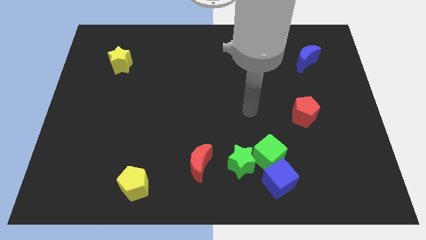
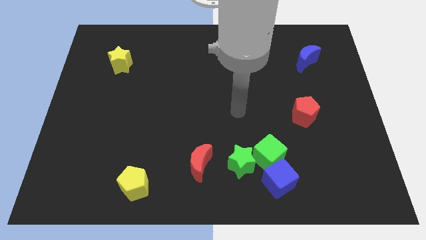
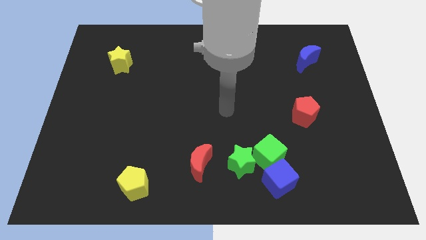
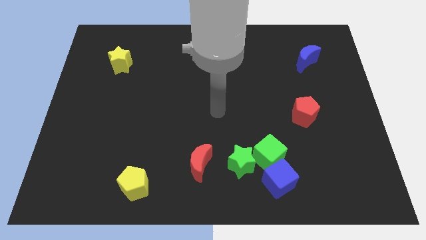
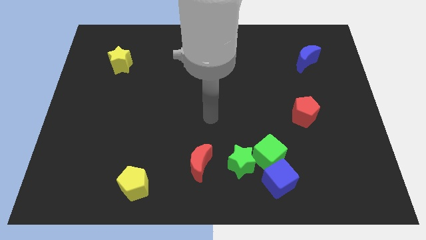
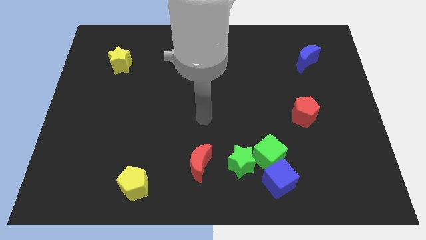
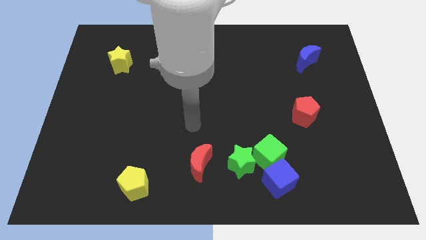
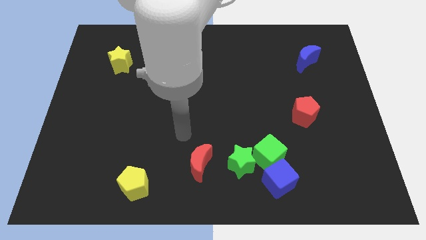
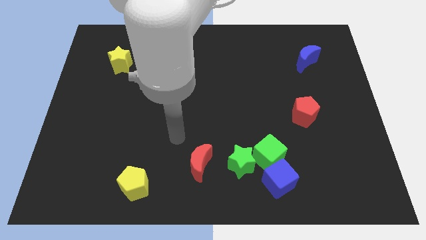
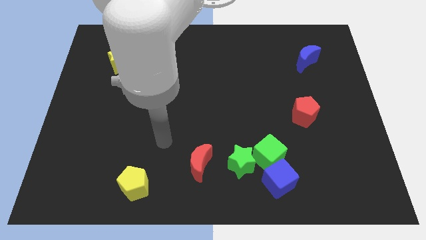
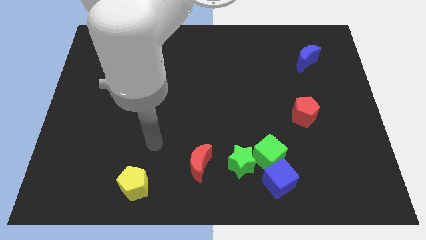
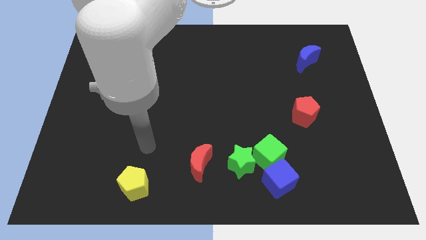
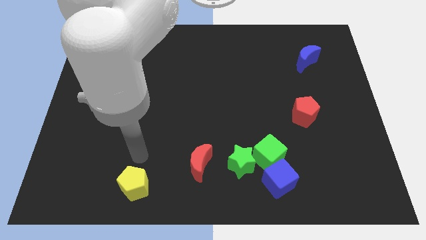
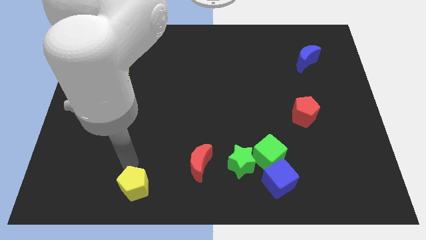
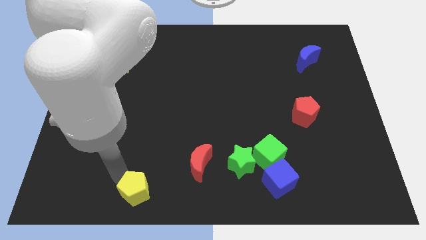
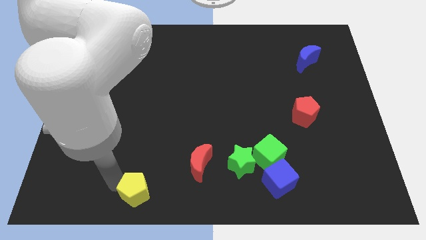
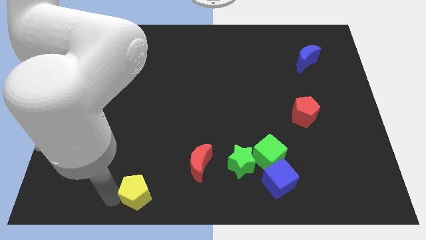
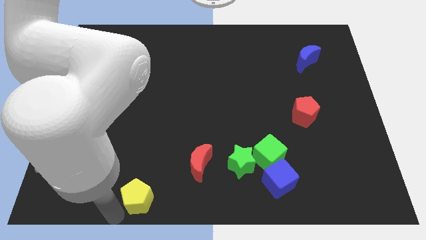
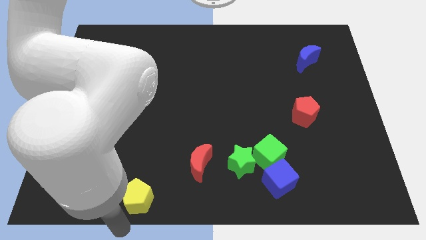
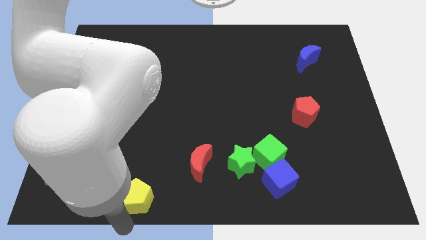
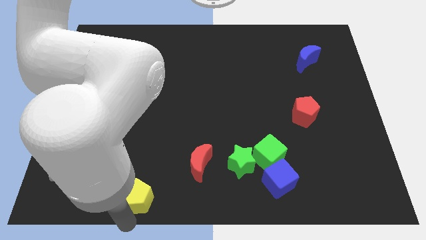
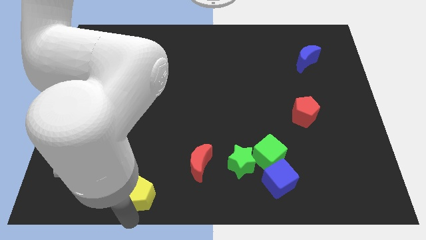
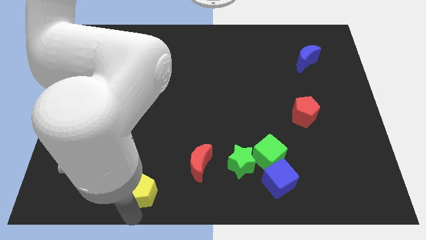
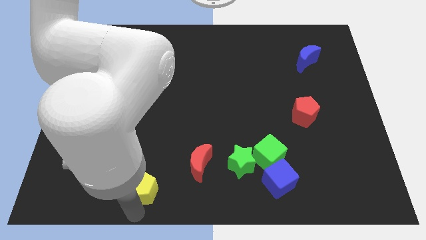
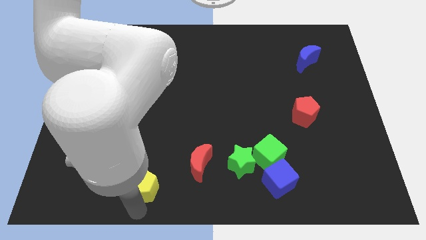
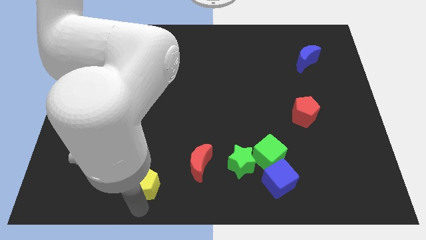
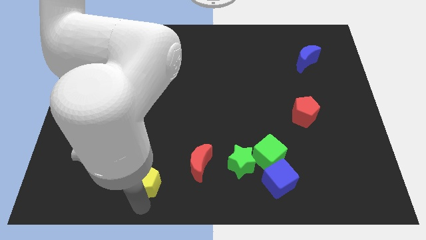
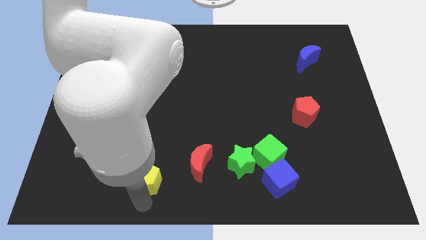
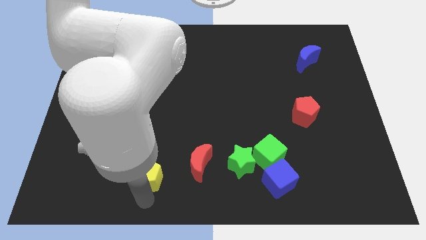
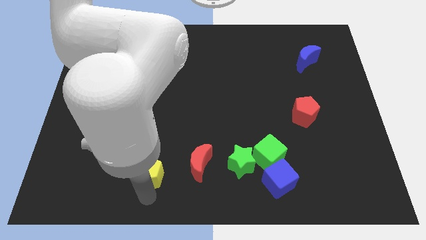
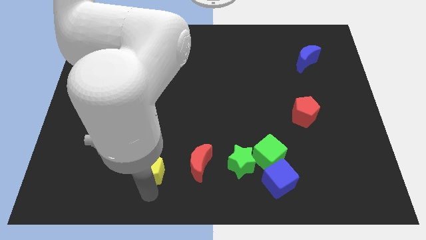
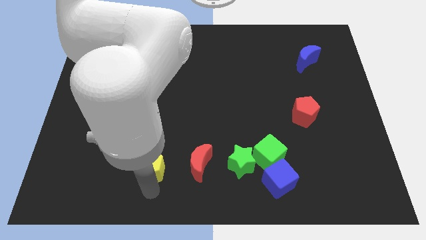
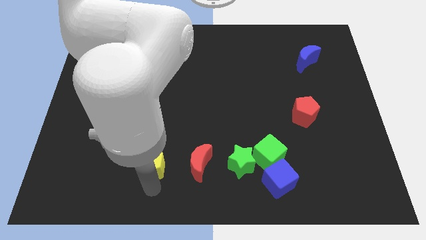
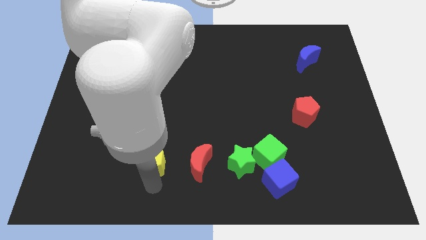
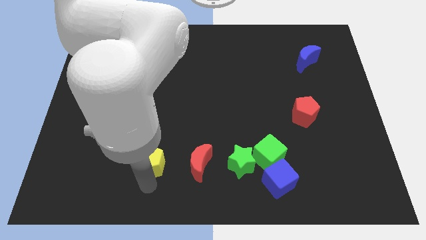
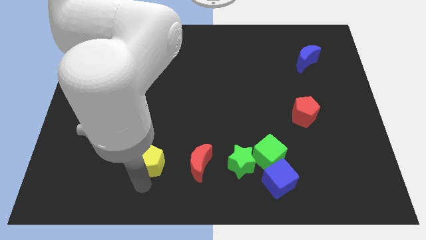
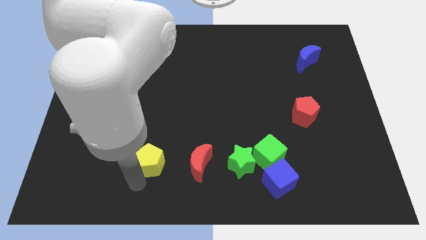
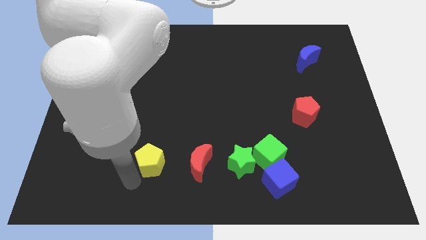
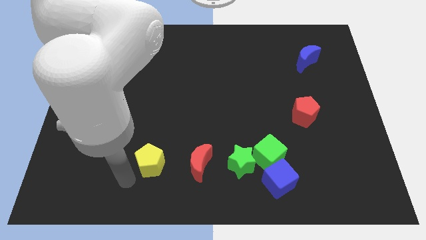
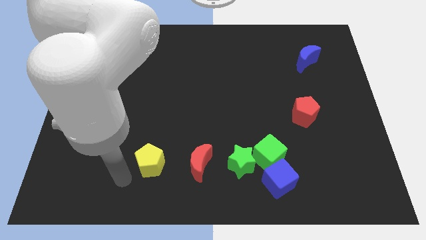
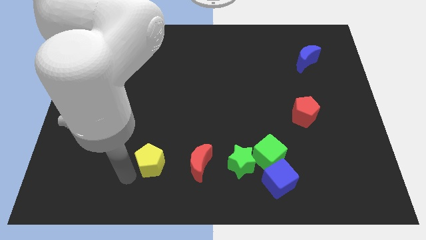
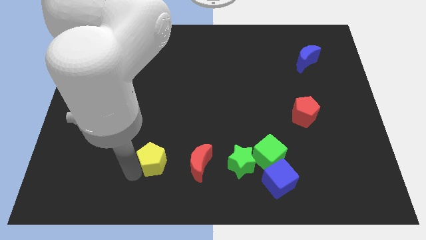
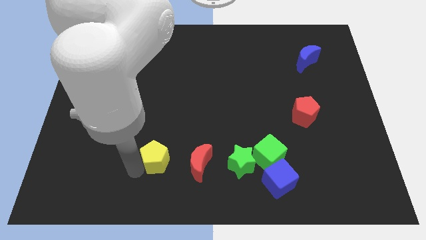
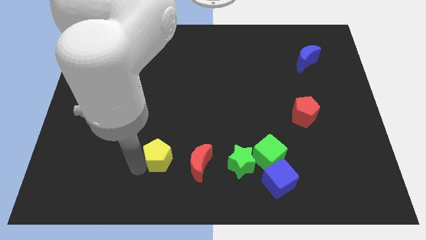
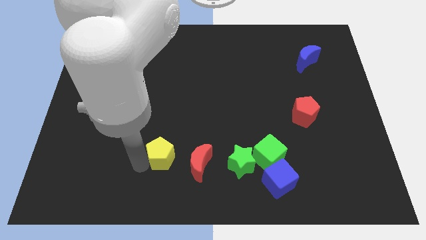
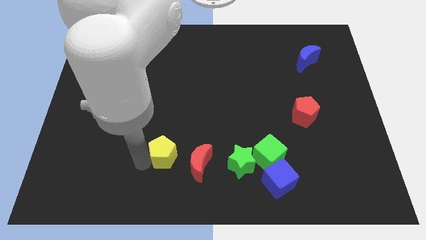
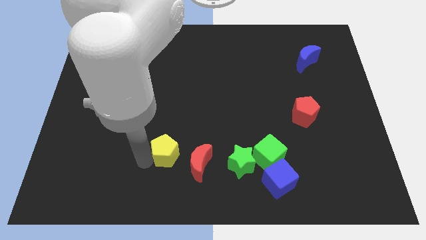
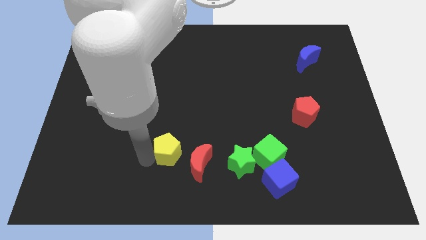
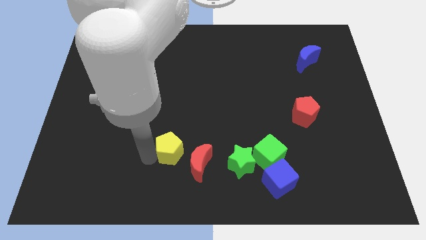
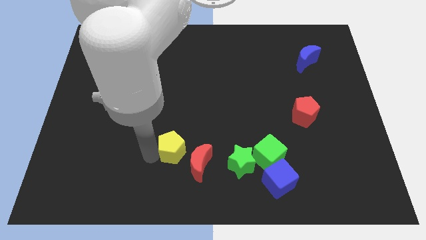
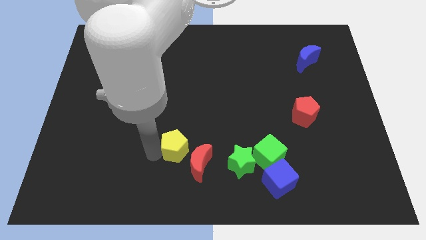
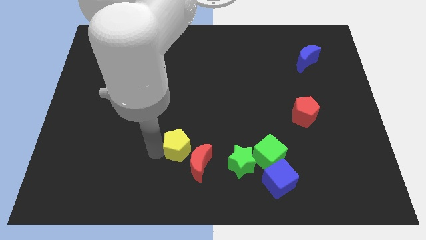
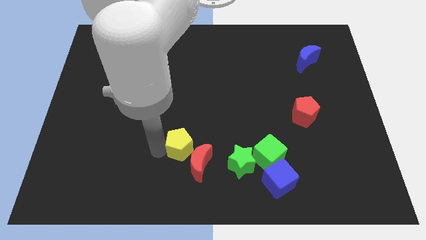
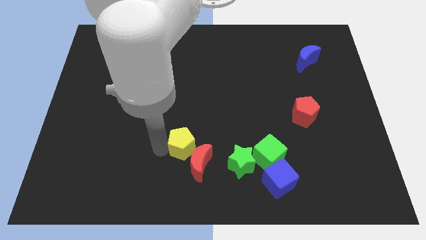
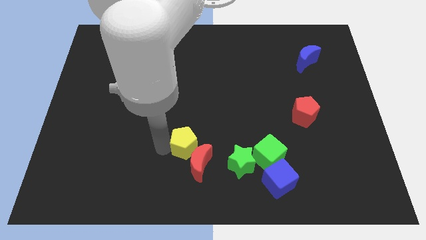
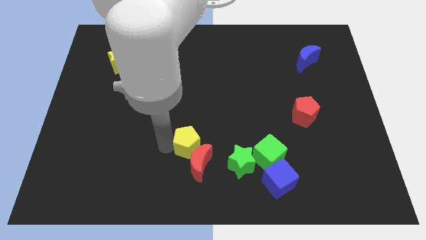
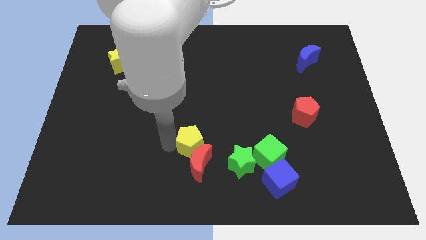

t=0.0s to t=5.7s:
put the yellow pentagon to the top left side of the green star

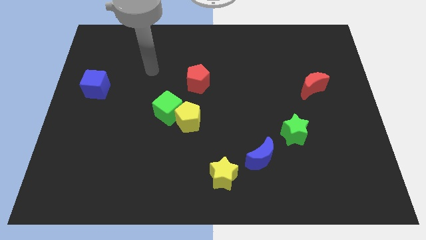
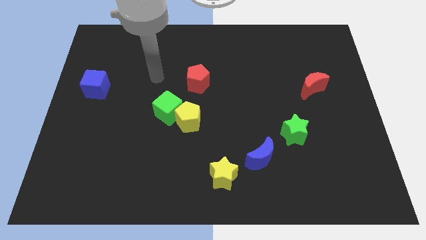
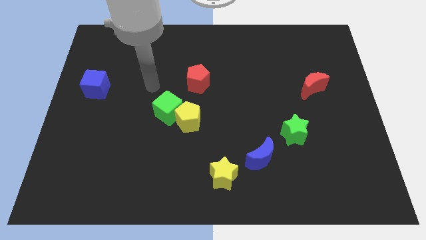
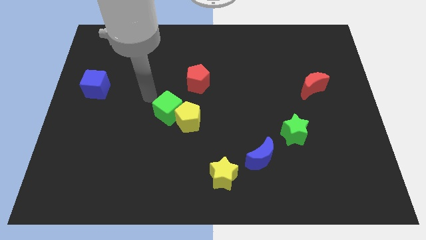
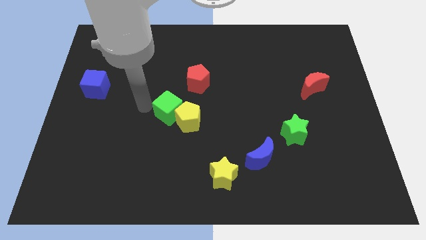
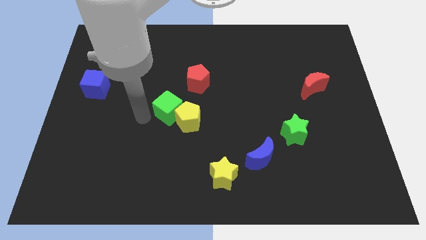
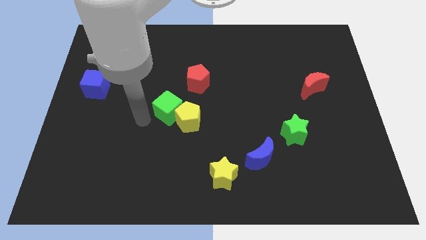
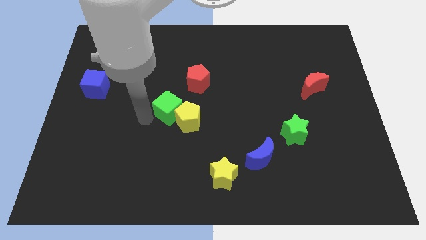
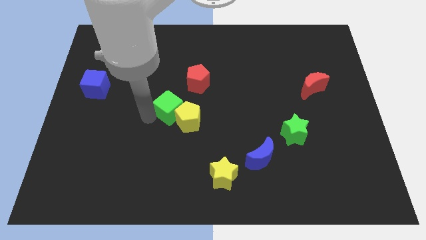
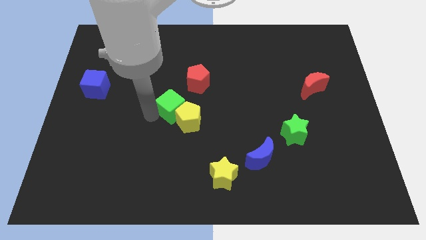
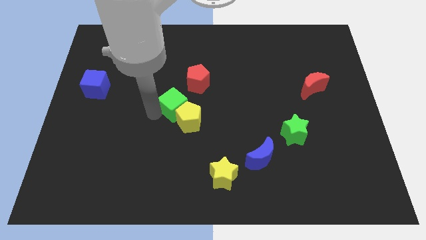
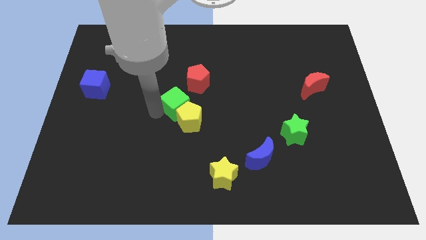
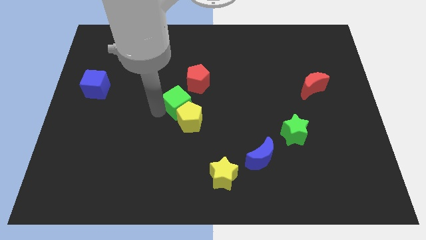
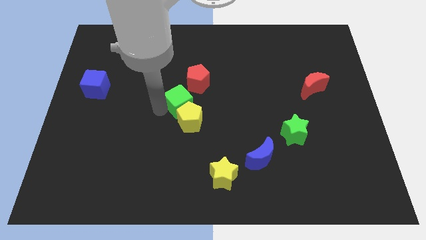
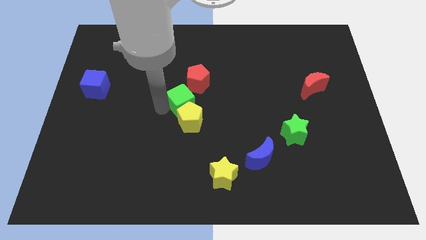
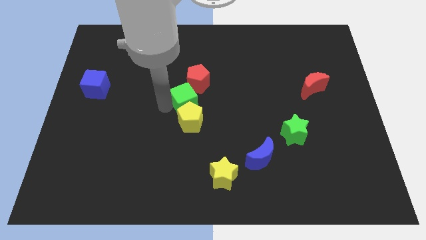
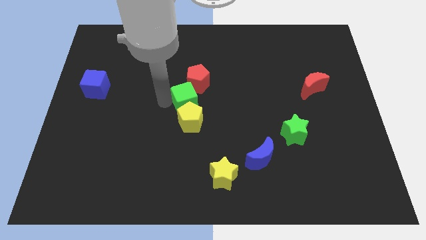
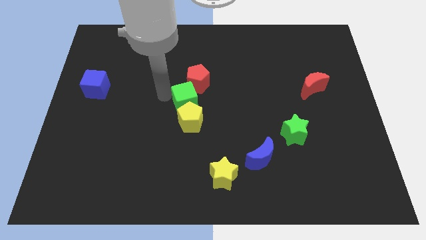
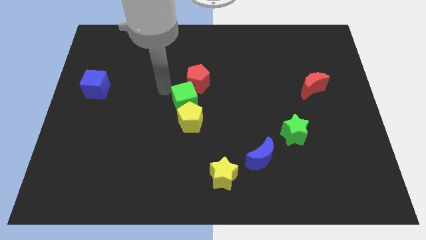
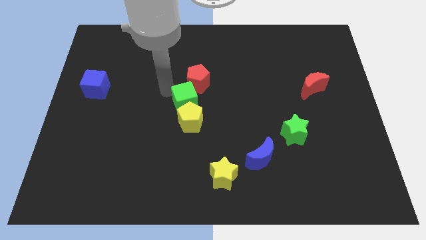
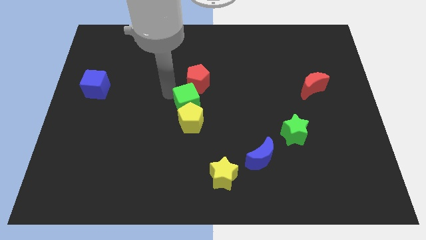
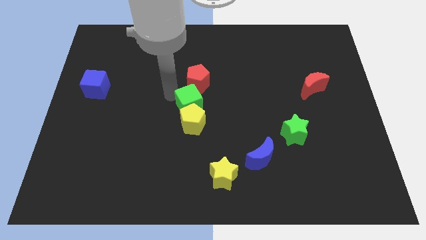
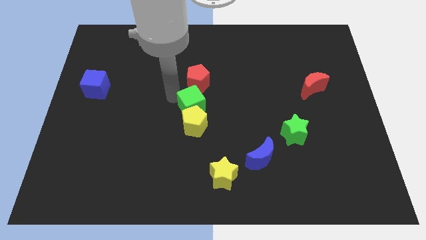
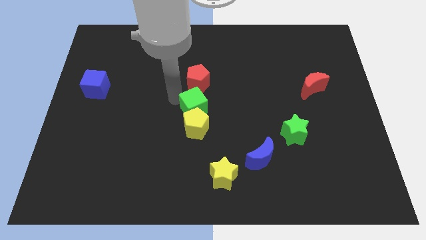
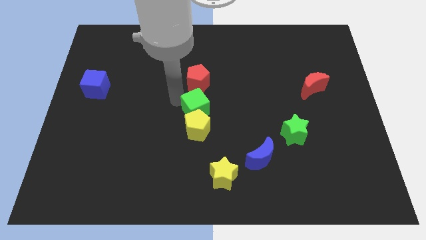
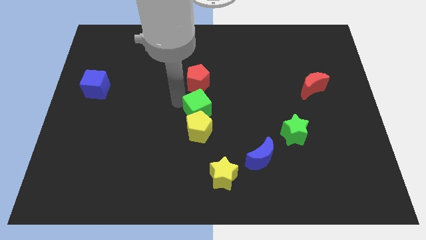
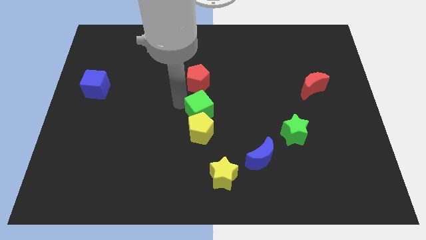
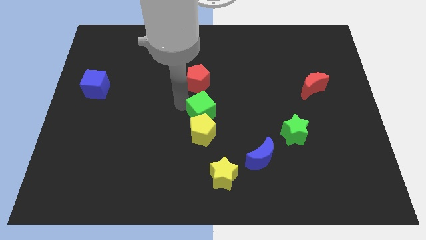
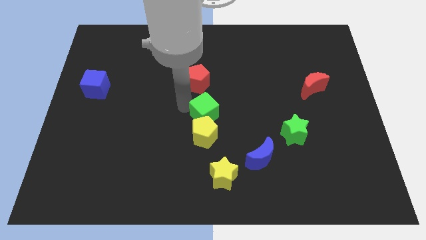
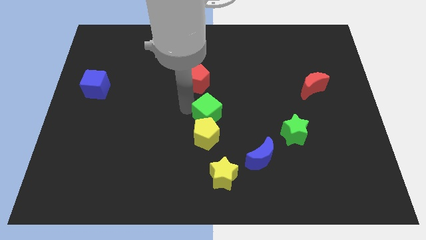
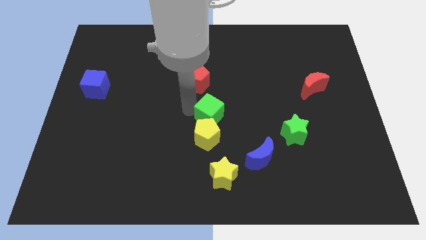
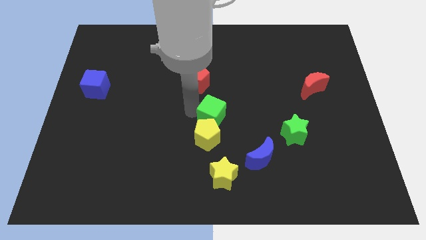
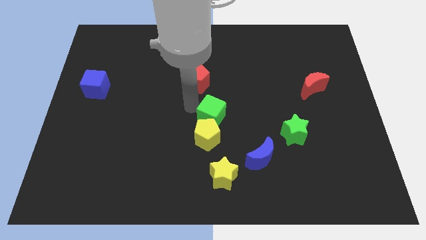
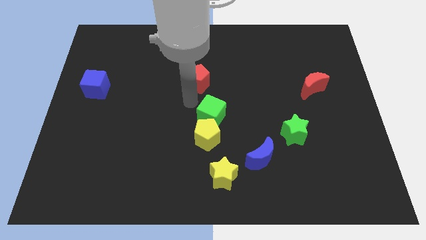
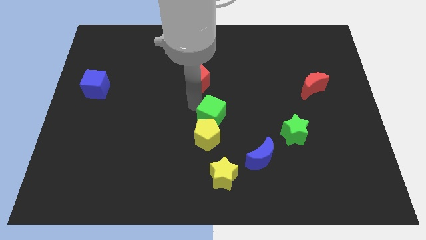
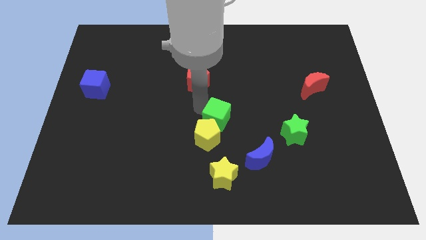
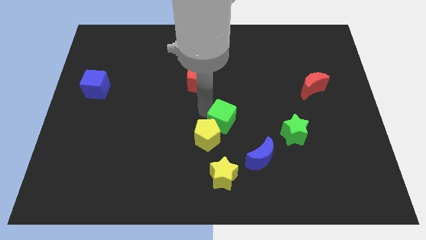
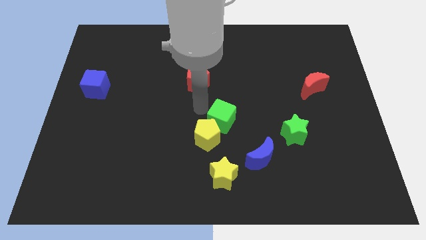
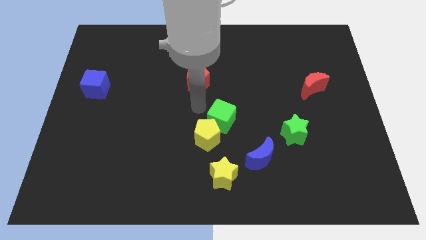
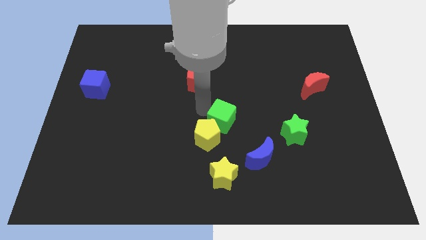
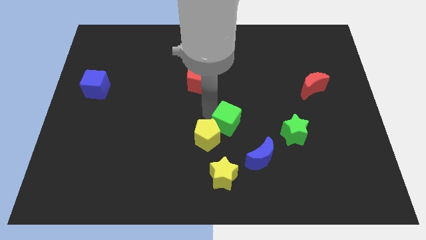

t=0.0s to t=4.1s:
slide the green cube just left of the green star
